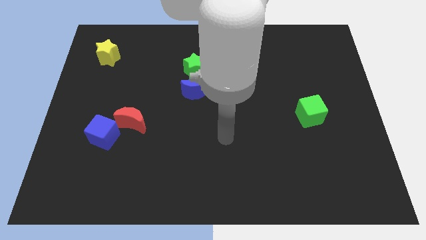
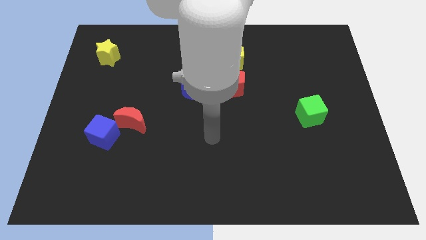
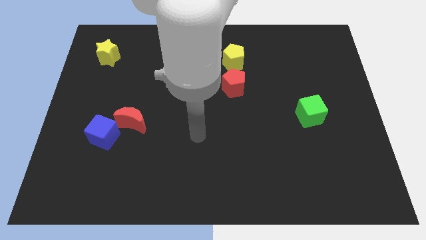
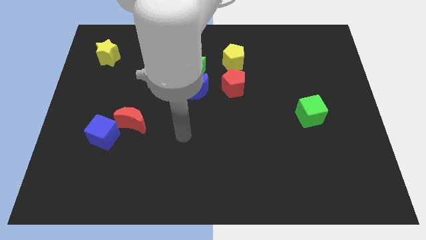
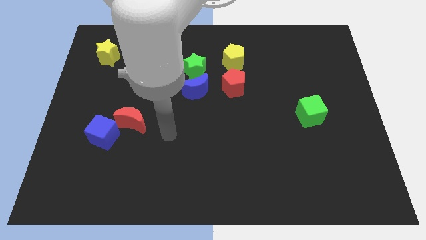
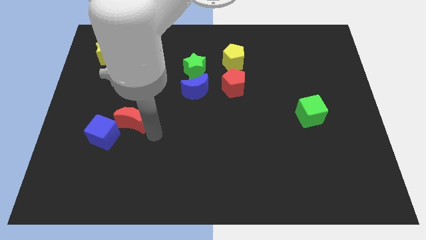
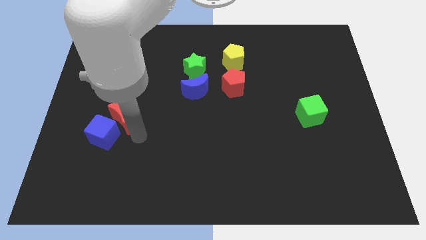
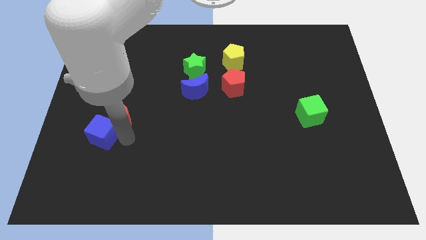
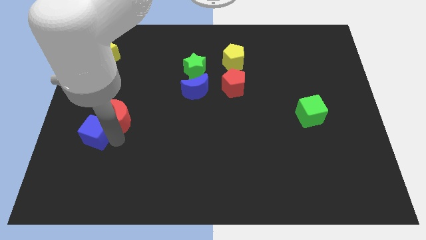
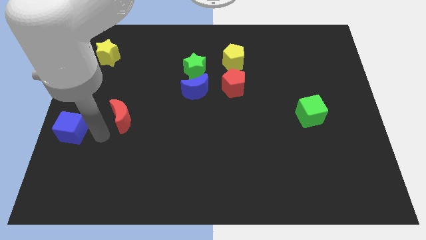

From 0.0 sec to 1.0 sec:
pull the red moon apart from the blue cube

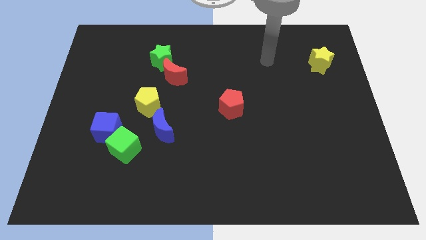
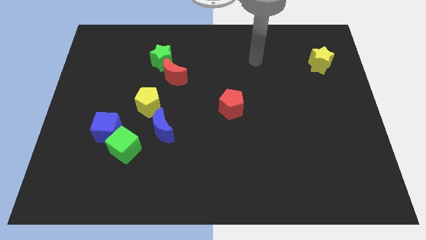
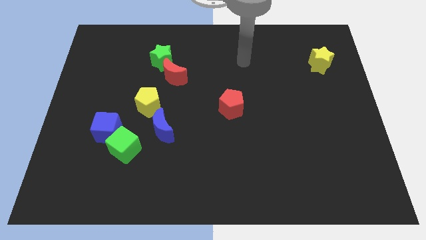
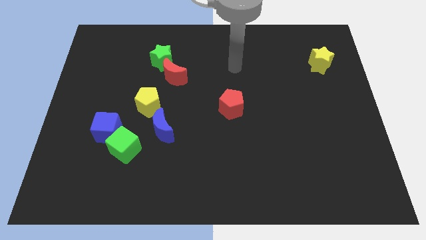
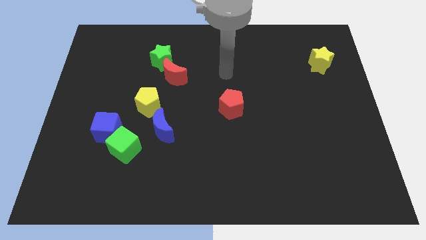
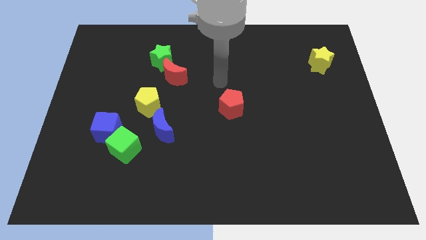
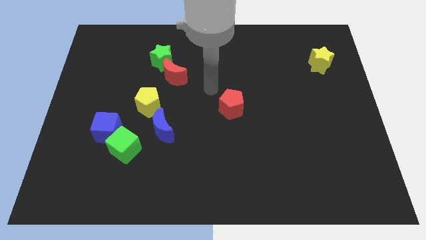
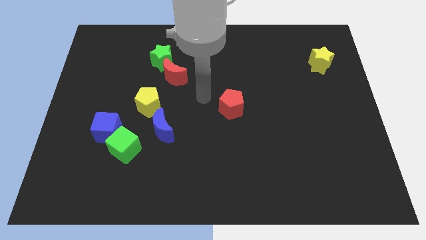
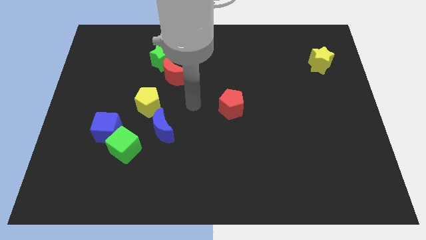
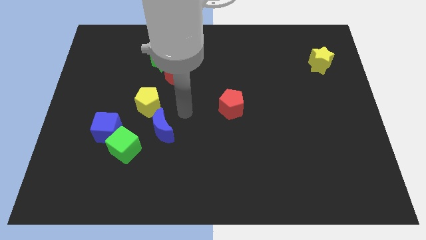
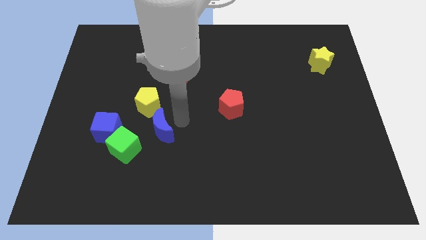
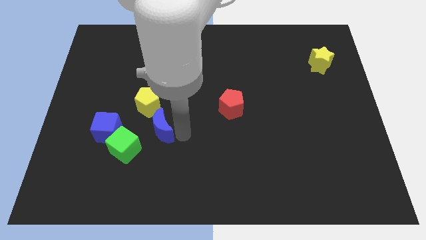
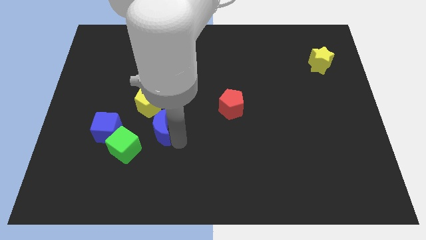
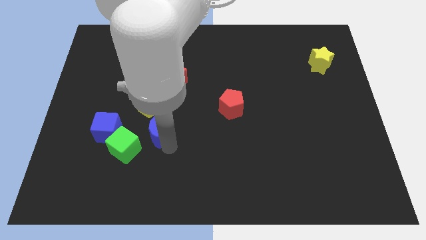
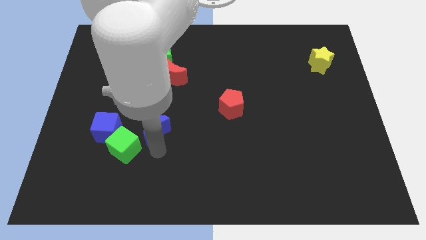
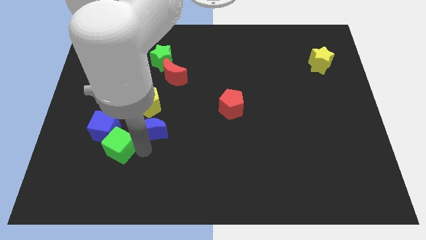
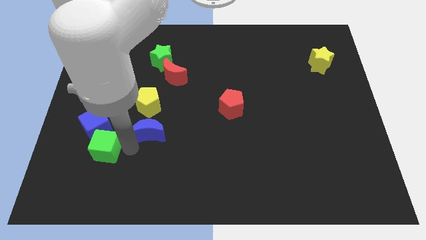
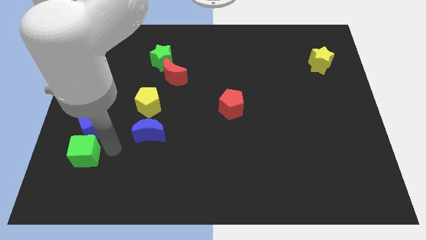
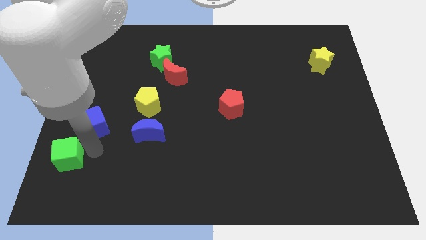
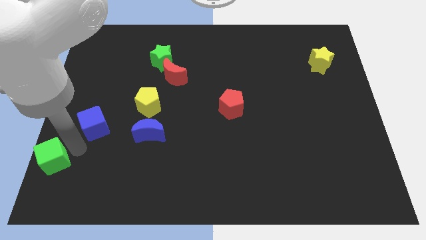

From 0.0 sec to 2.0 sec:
move the blue cube away from the green cube

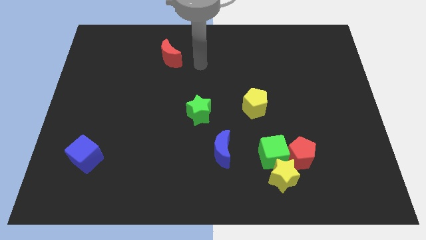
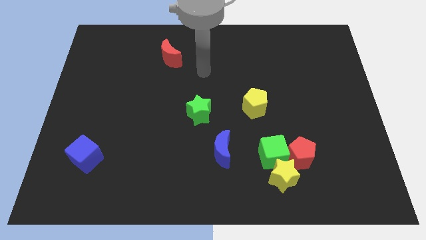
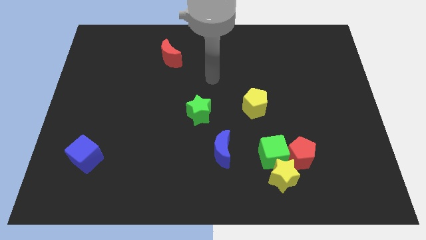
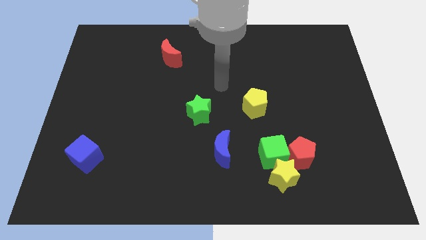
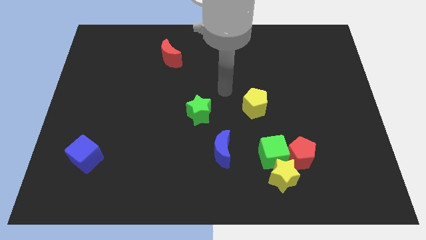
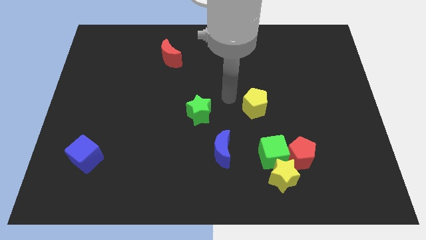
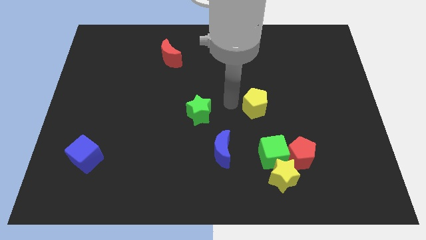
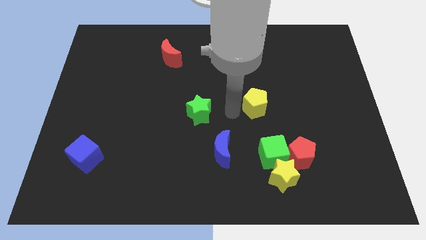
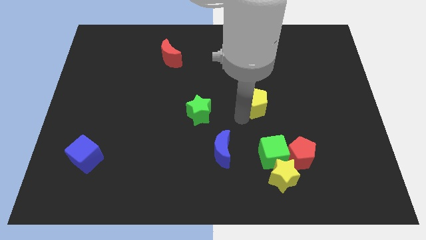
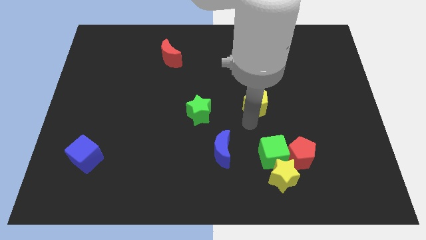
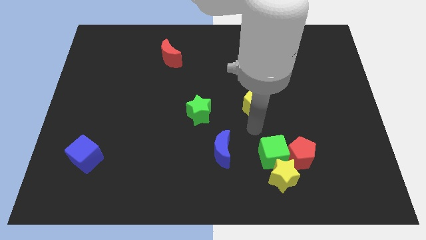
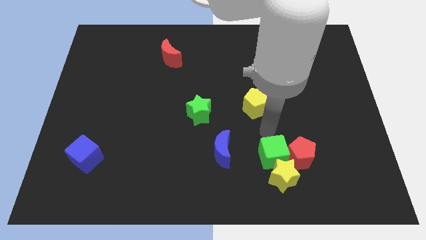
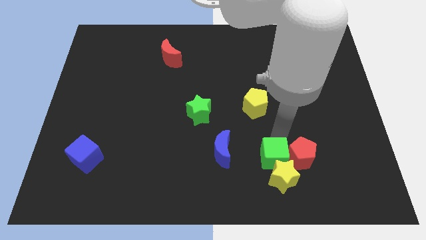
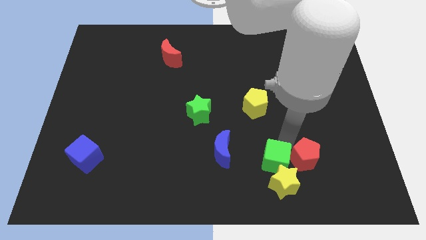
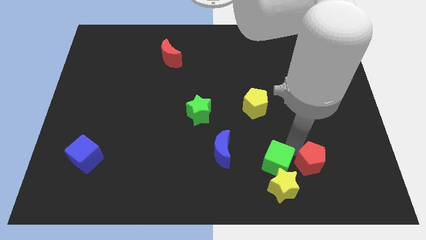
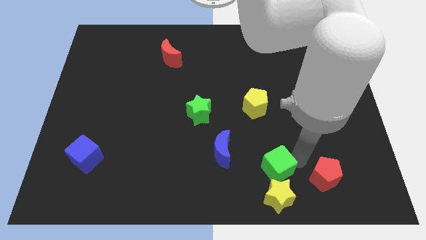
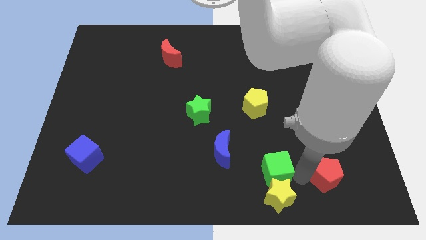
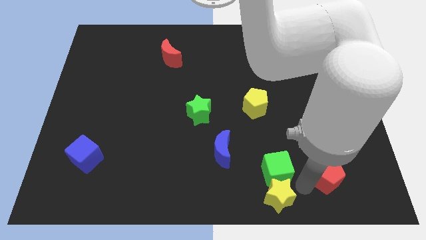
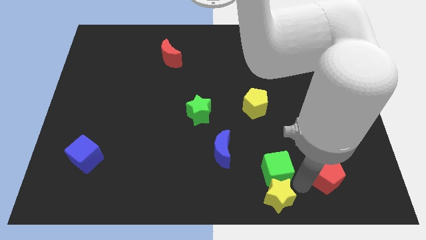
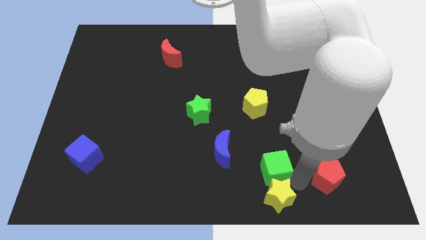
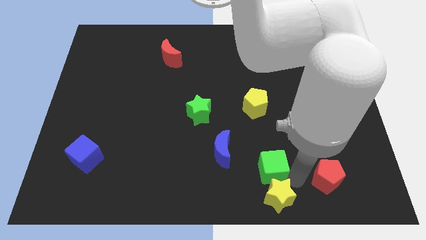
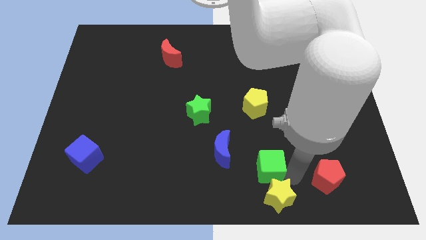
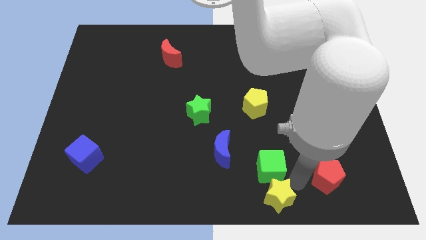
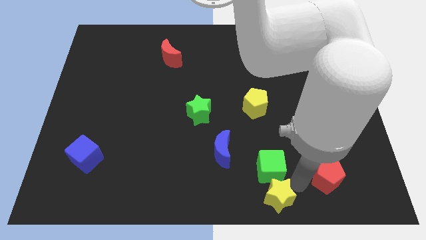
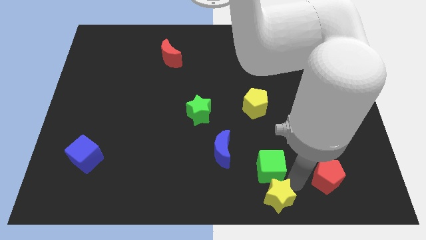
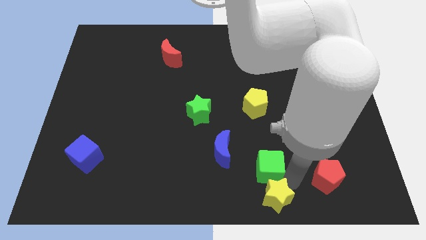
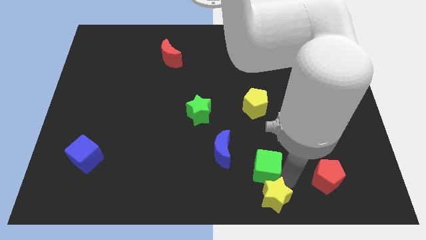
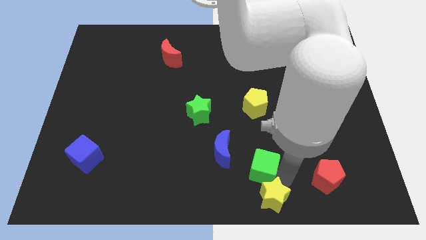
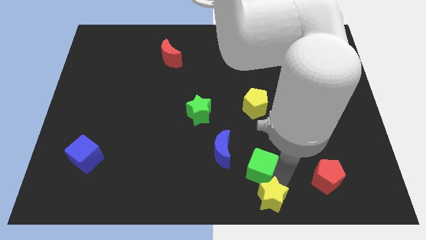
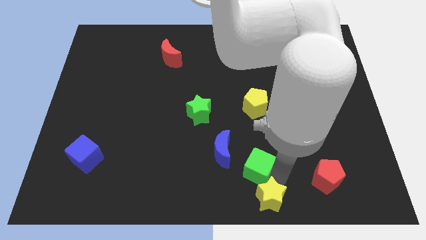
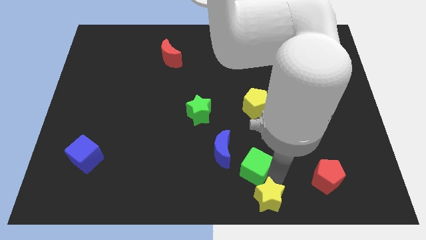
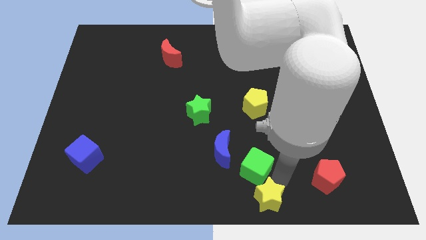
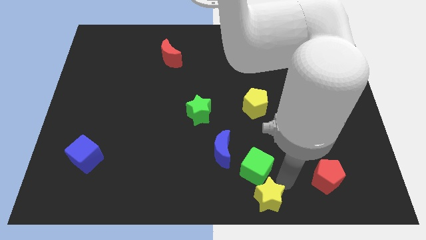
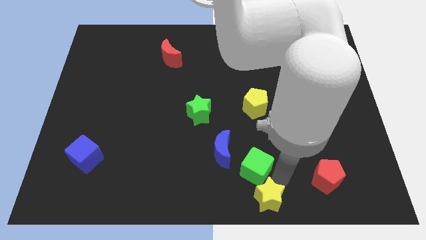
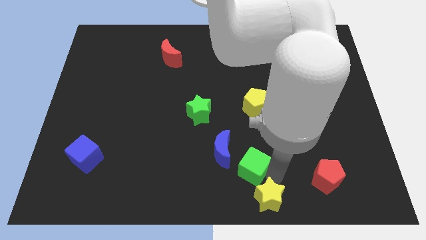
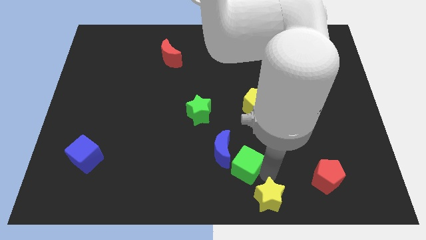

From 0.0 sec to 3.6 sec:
pull the green cube apart from the yellow star and red pentagon

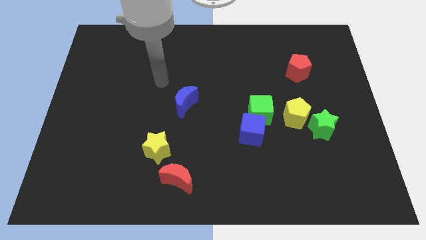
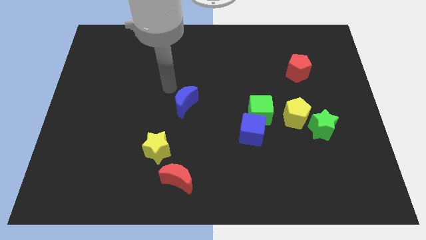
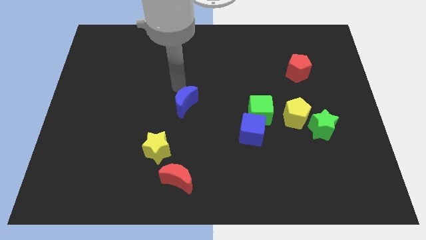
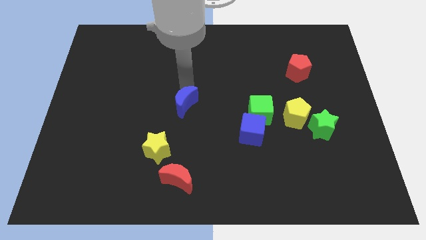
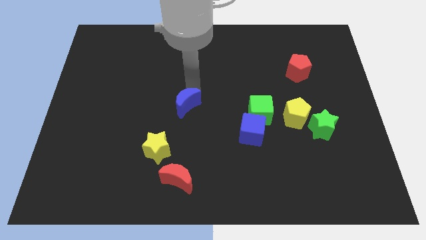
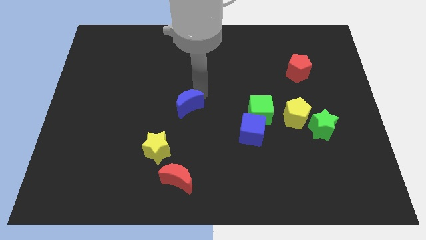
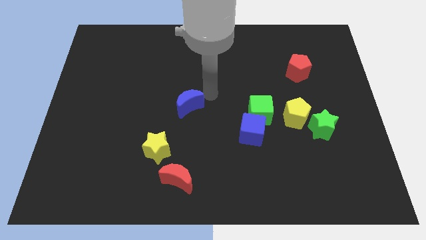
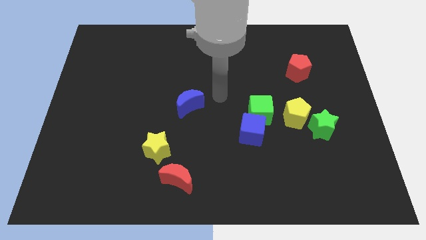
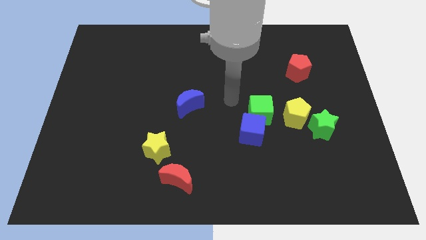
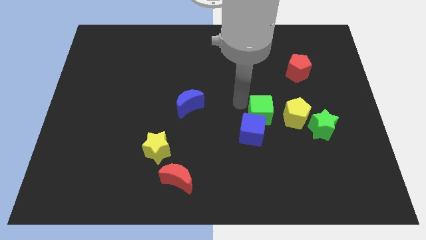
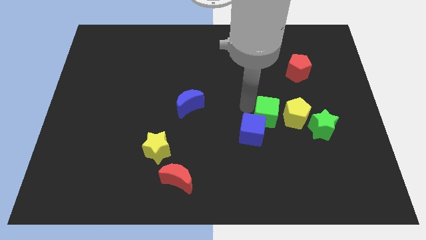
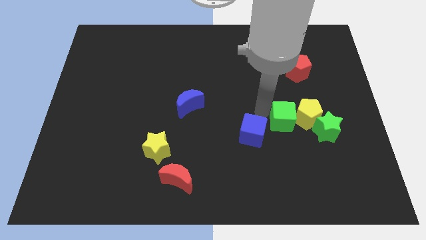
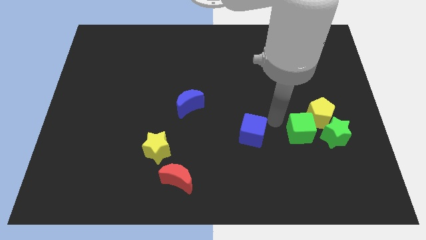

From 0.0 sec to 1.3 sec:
separate the blue cube from the green cube

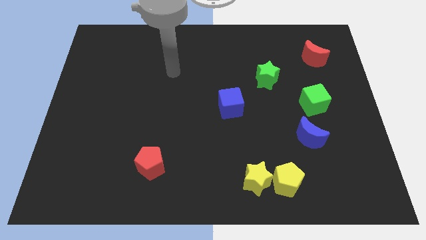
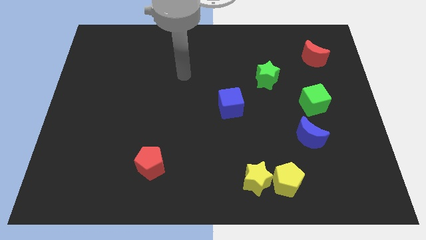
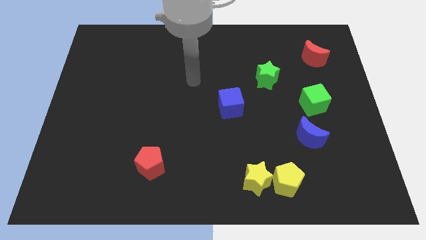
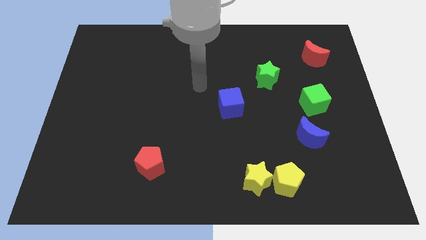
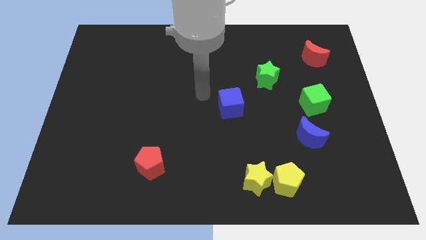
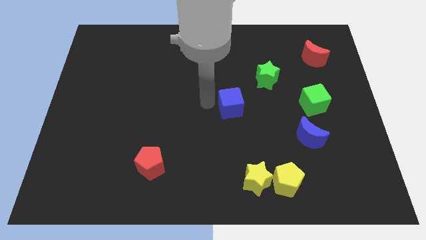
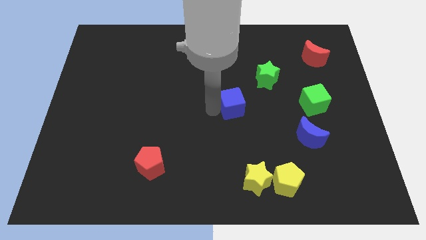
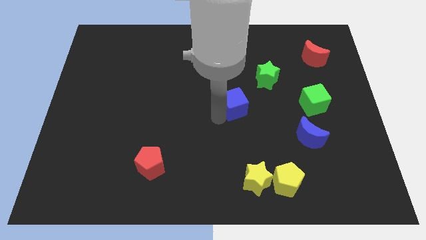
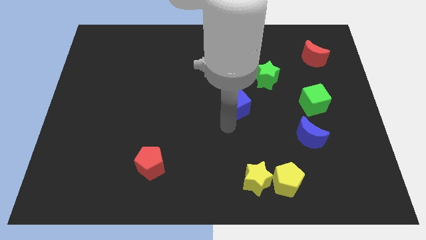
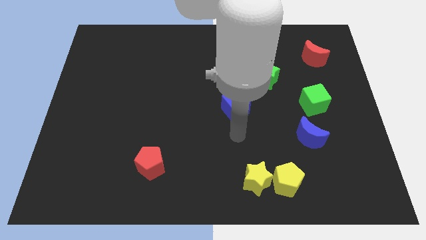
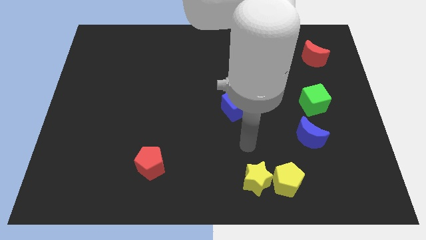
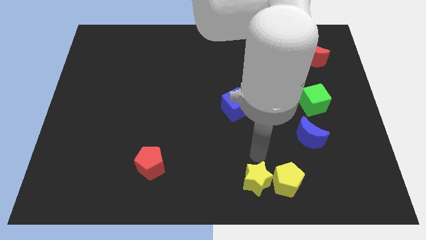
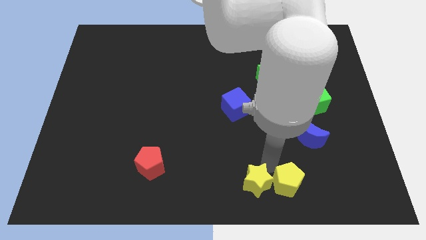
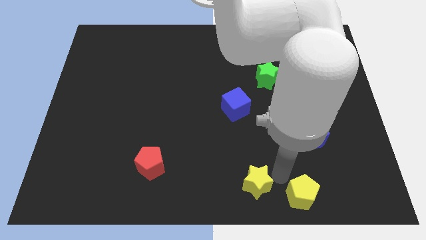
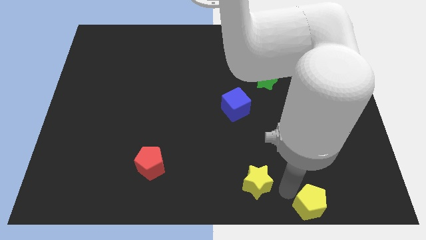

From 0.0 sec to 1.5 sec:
separate the yellow star from the yellow pentagon
